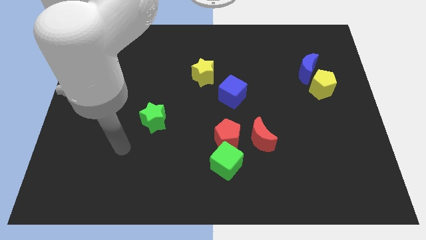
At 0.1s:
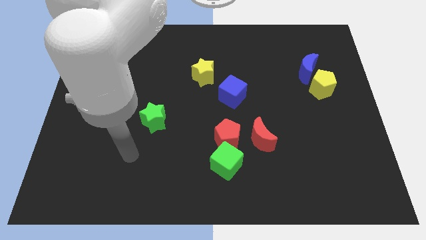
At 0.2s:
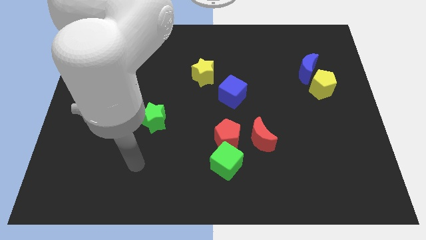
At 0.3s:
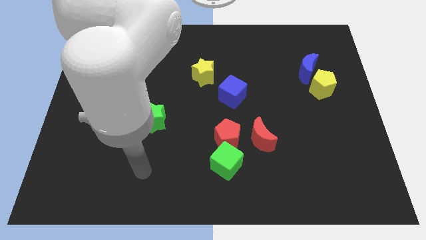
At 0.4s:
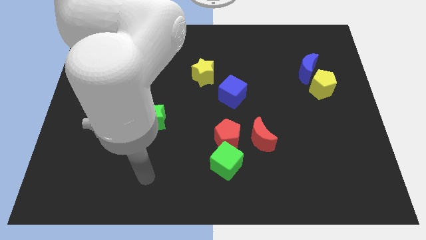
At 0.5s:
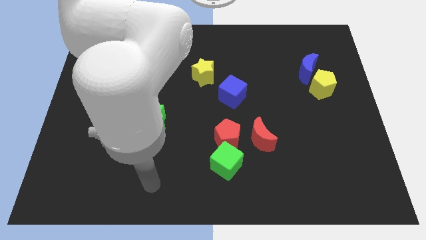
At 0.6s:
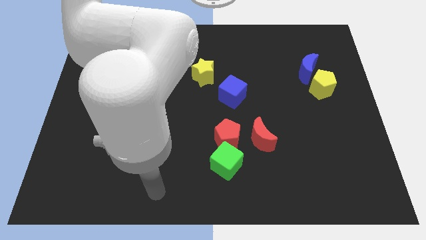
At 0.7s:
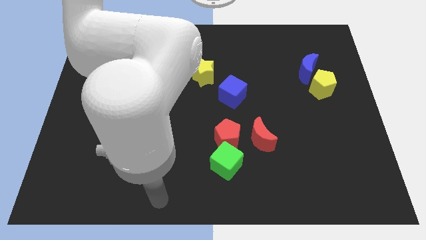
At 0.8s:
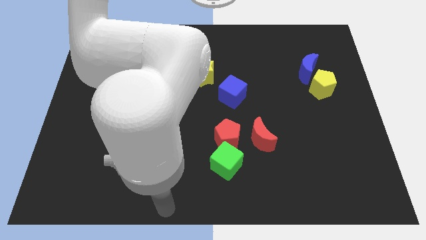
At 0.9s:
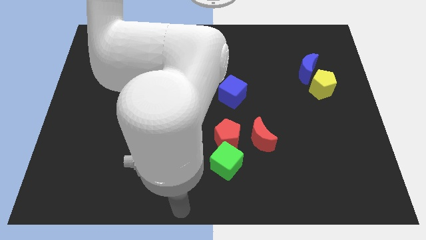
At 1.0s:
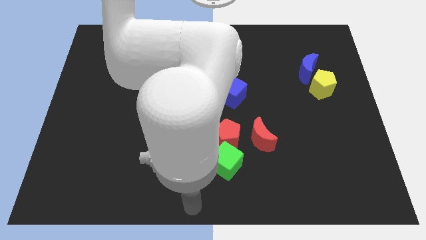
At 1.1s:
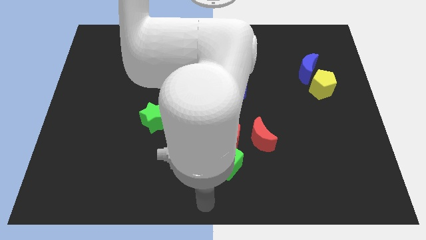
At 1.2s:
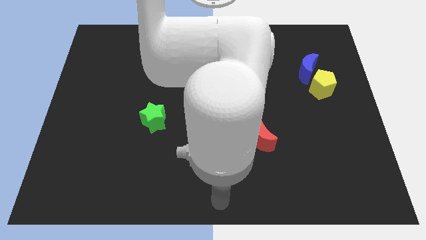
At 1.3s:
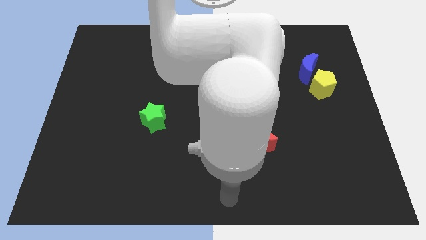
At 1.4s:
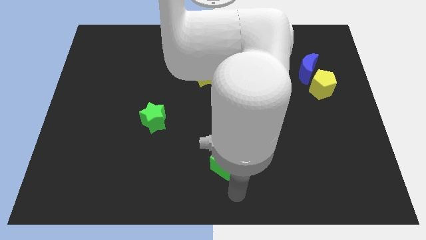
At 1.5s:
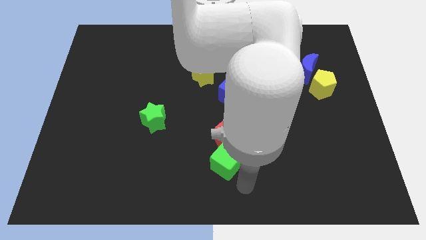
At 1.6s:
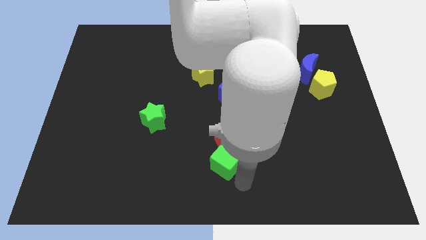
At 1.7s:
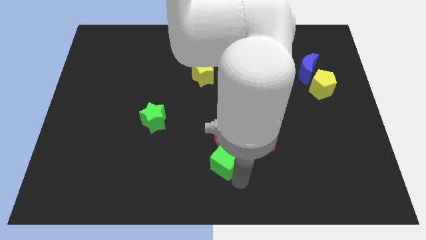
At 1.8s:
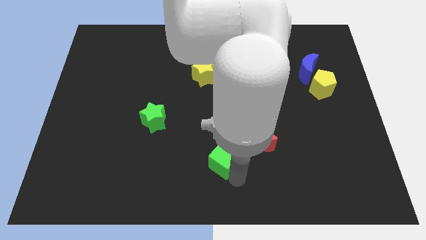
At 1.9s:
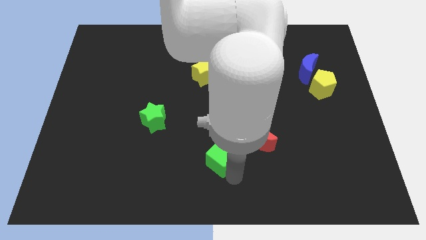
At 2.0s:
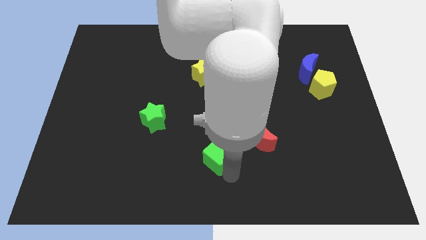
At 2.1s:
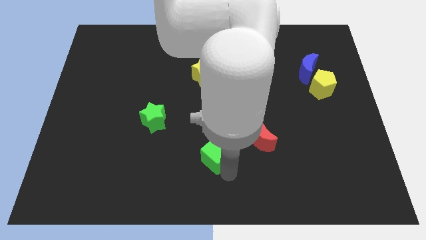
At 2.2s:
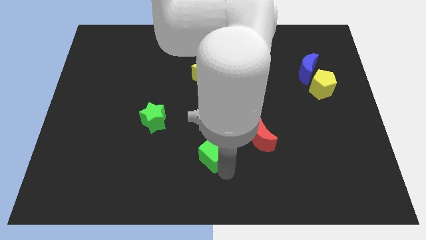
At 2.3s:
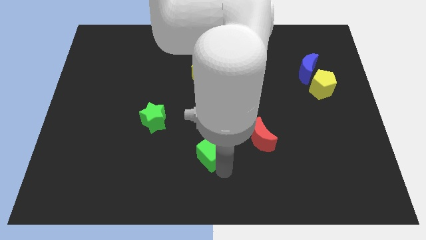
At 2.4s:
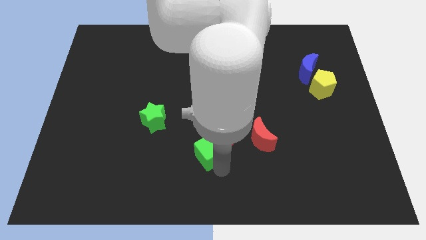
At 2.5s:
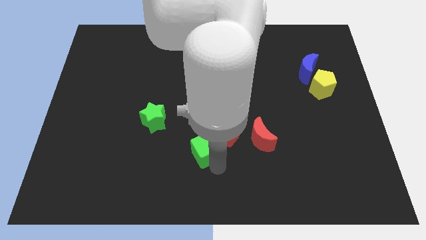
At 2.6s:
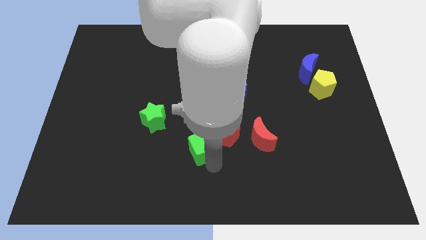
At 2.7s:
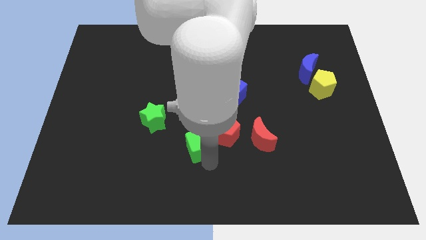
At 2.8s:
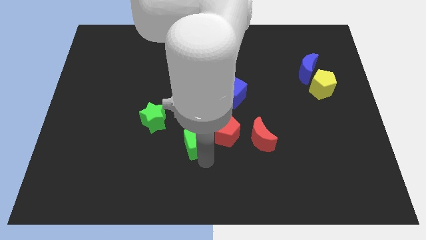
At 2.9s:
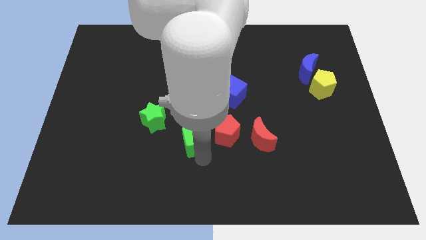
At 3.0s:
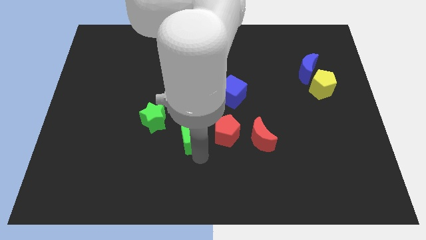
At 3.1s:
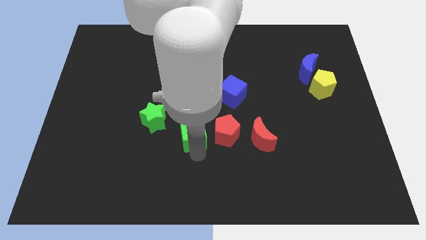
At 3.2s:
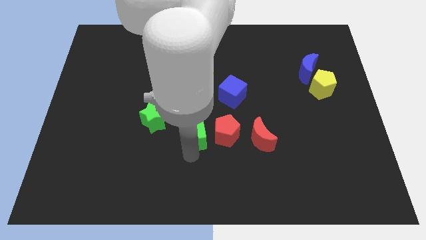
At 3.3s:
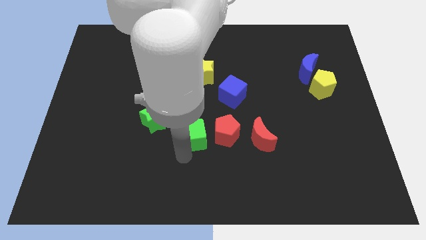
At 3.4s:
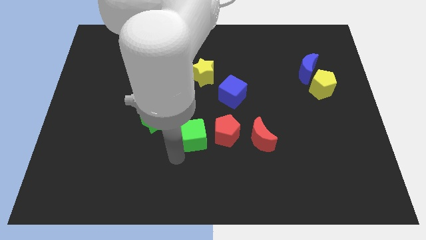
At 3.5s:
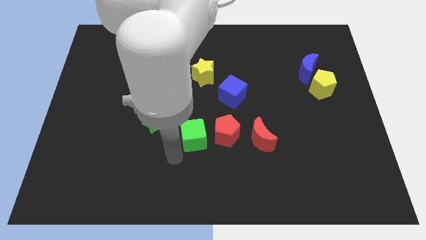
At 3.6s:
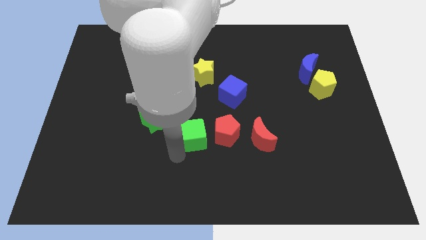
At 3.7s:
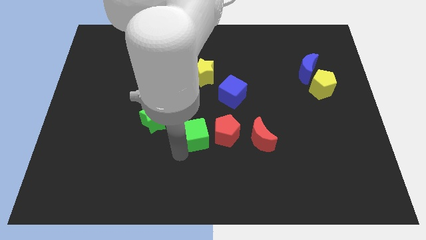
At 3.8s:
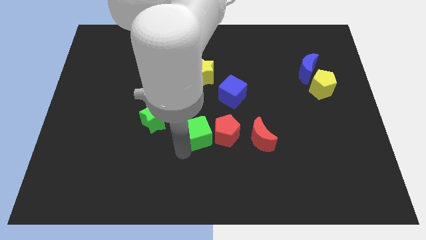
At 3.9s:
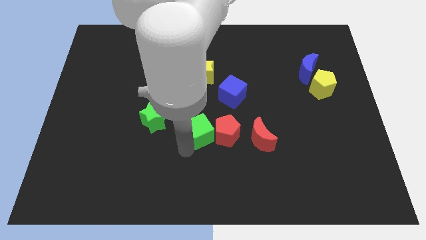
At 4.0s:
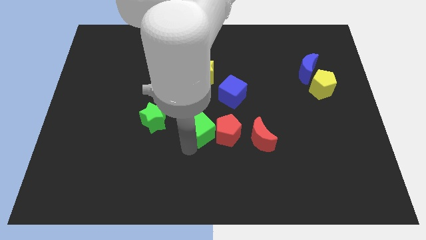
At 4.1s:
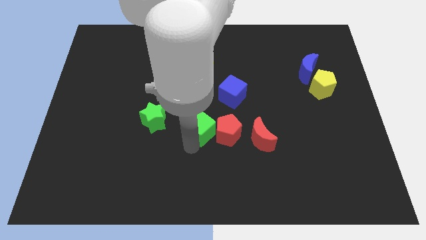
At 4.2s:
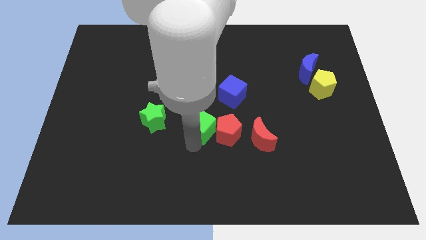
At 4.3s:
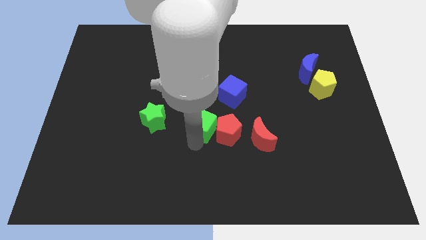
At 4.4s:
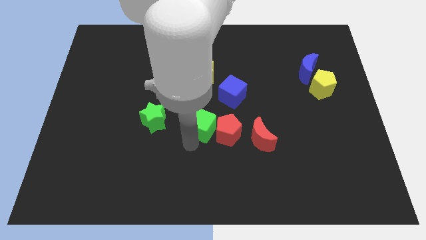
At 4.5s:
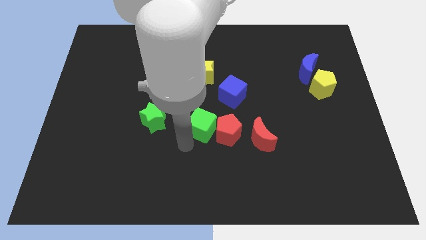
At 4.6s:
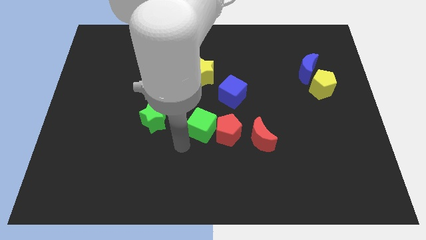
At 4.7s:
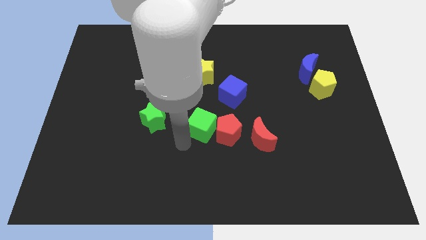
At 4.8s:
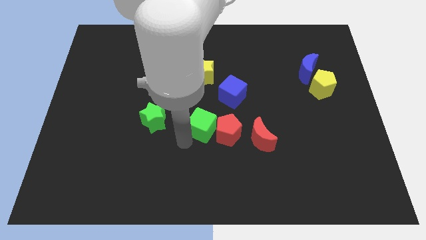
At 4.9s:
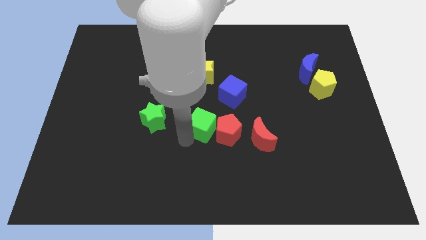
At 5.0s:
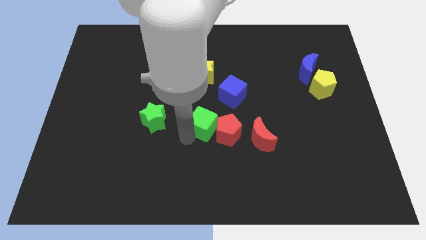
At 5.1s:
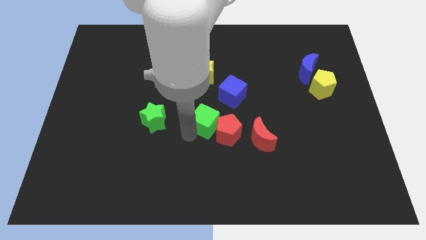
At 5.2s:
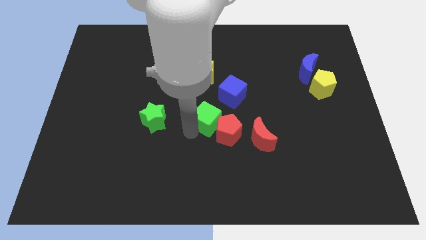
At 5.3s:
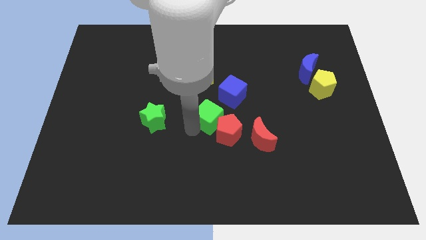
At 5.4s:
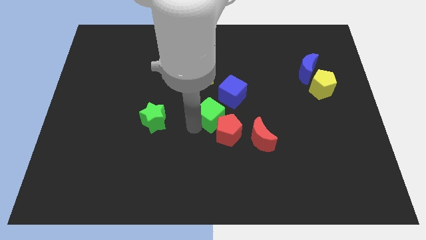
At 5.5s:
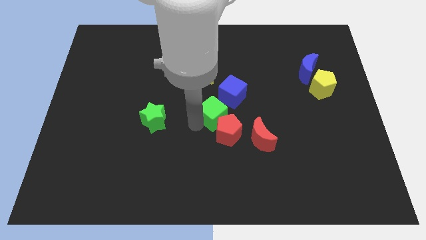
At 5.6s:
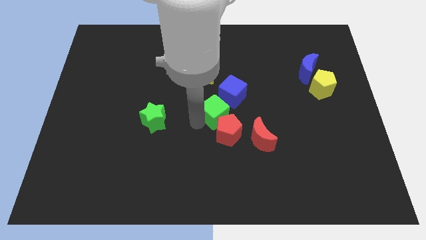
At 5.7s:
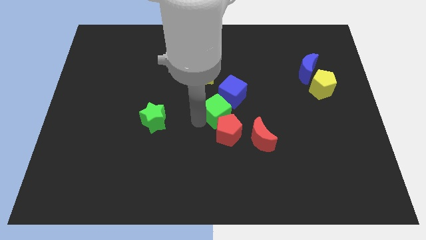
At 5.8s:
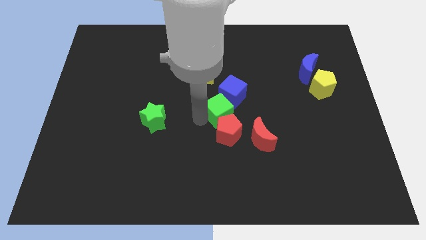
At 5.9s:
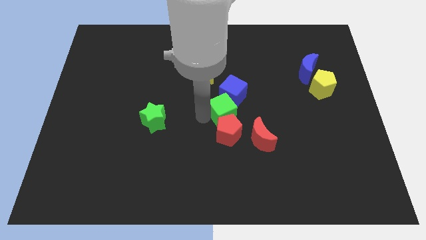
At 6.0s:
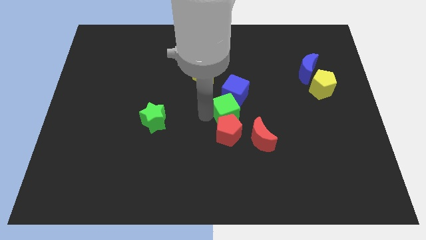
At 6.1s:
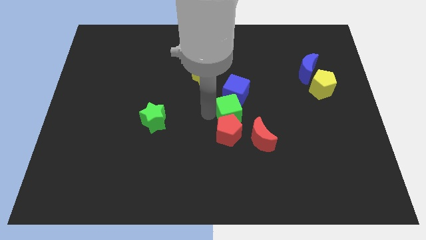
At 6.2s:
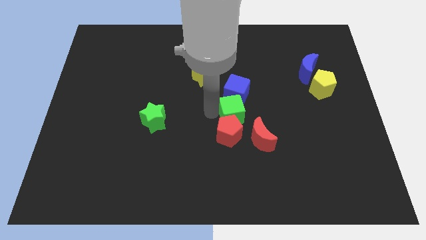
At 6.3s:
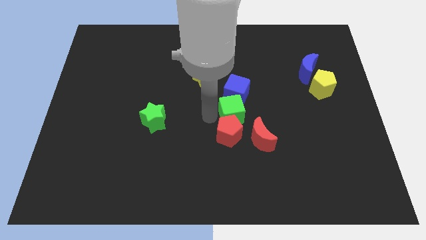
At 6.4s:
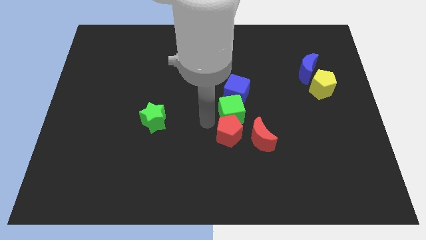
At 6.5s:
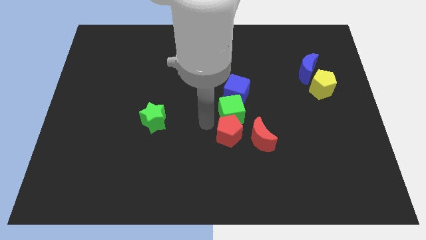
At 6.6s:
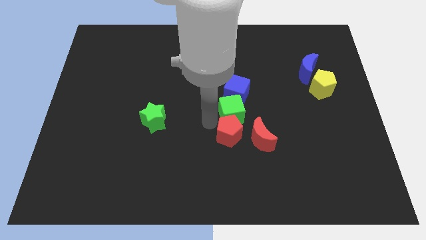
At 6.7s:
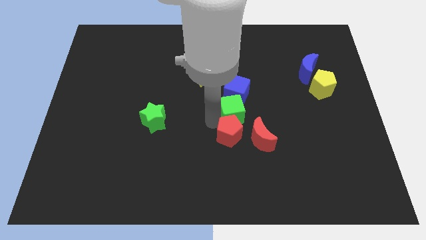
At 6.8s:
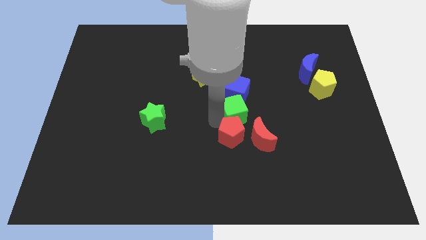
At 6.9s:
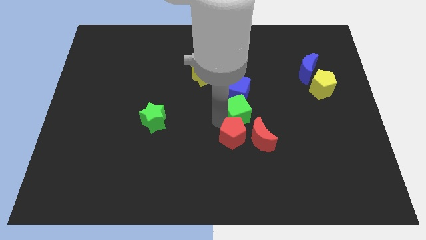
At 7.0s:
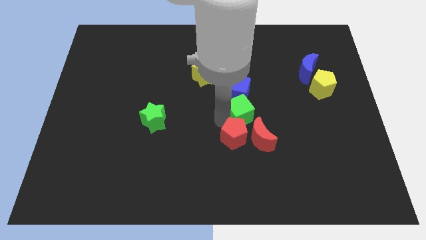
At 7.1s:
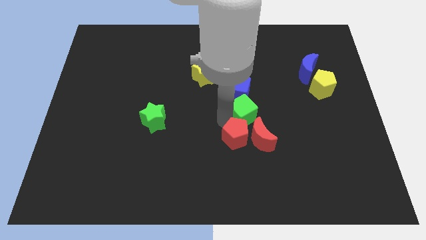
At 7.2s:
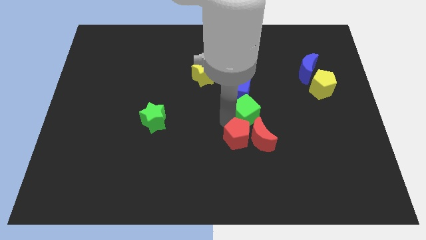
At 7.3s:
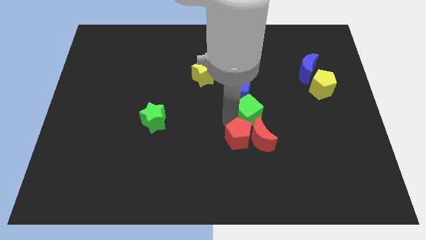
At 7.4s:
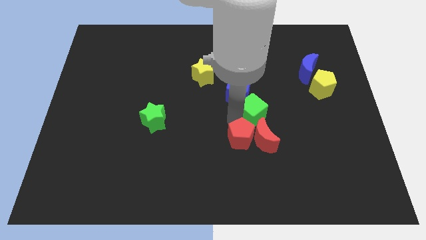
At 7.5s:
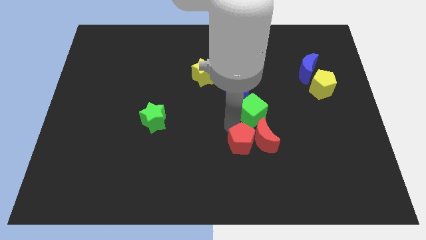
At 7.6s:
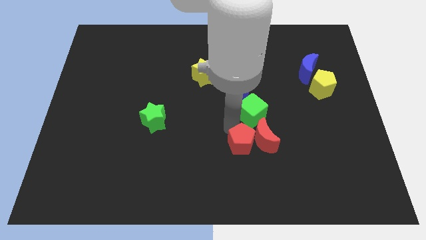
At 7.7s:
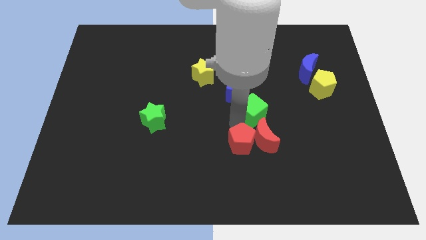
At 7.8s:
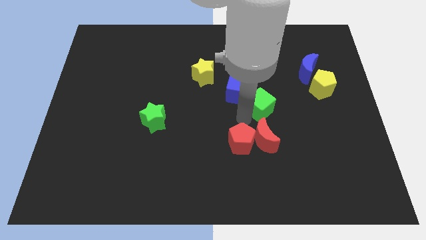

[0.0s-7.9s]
slide the green cube to the right side of the blue cube
